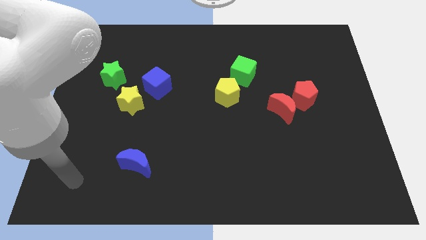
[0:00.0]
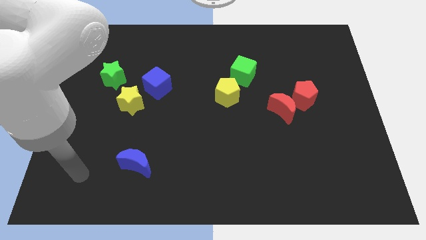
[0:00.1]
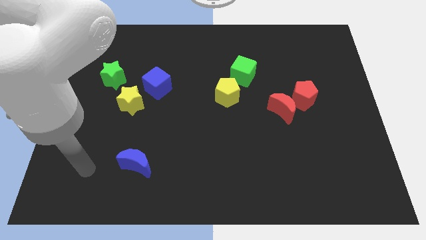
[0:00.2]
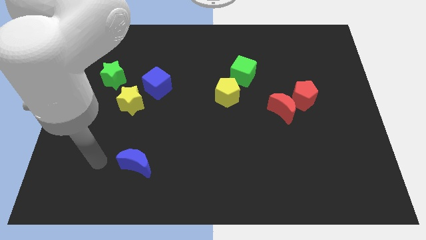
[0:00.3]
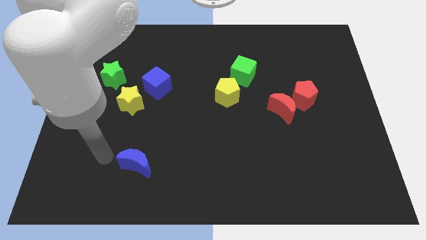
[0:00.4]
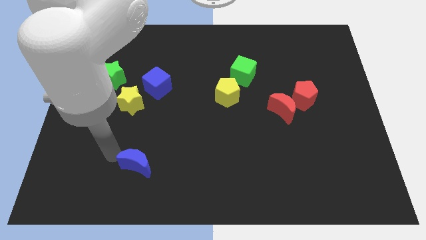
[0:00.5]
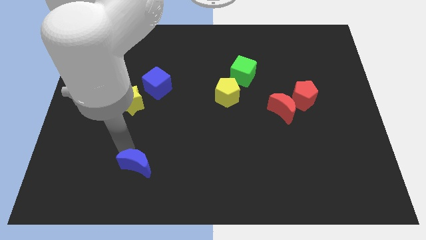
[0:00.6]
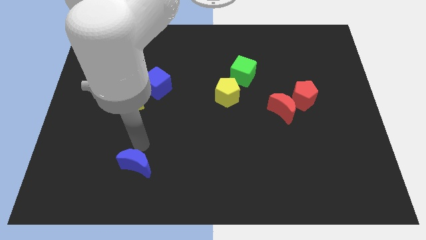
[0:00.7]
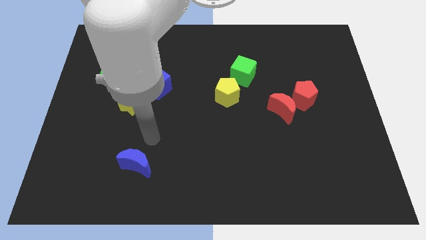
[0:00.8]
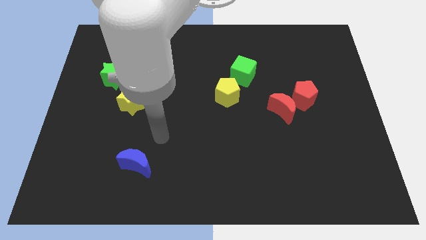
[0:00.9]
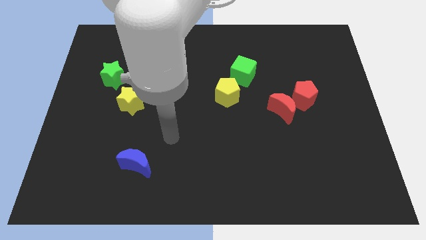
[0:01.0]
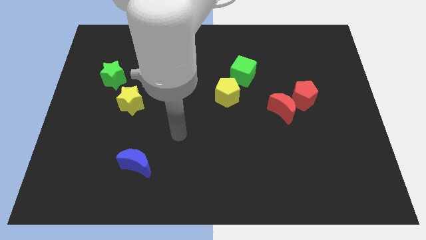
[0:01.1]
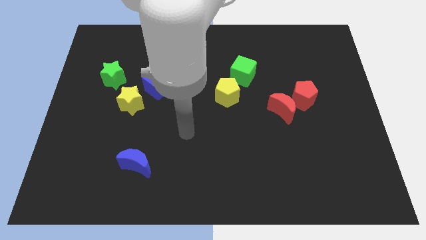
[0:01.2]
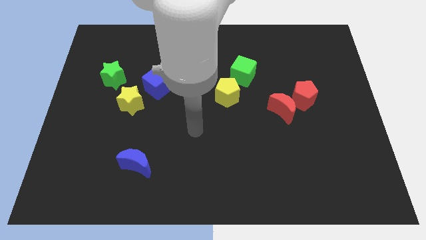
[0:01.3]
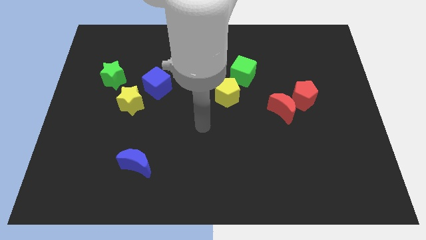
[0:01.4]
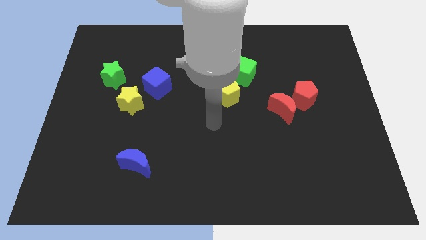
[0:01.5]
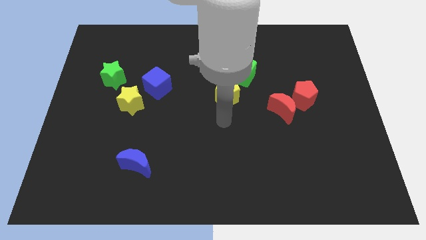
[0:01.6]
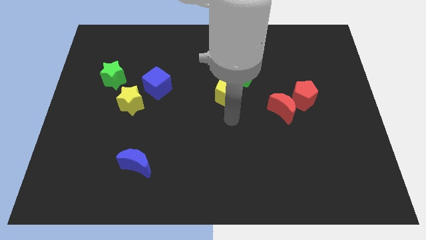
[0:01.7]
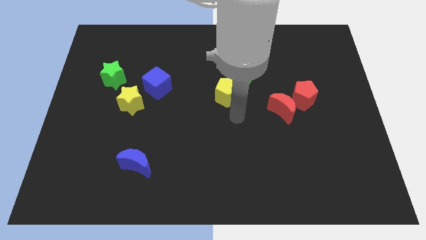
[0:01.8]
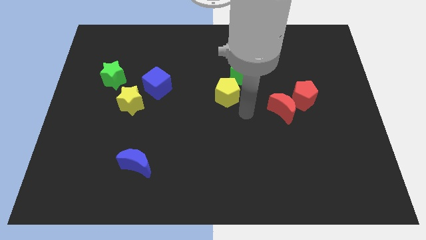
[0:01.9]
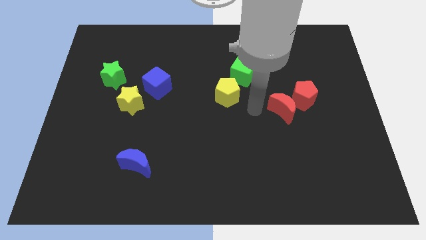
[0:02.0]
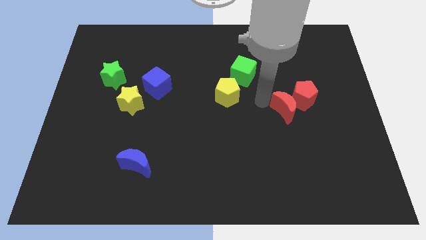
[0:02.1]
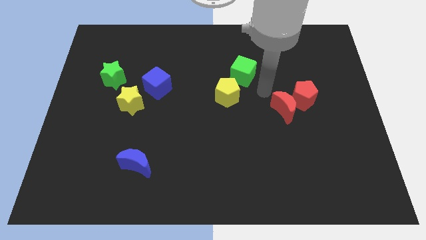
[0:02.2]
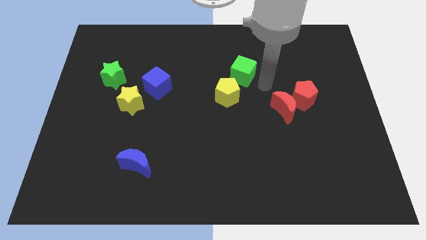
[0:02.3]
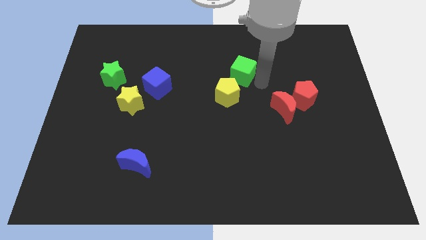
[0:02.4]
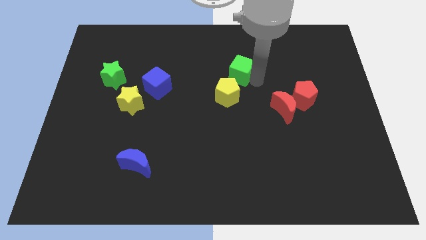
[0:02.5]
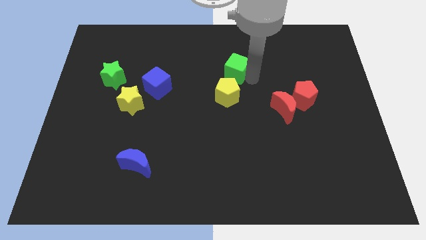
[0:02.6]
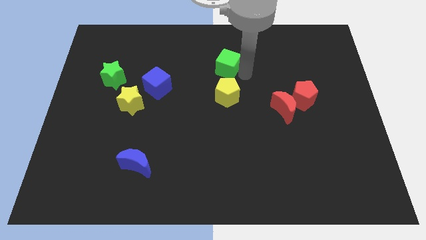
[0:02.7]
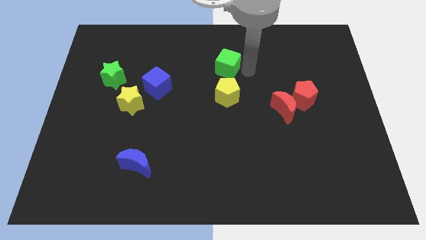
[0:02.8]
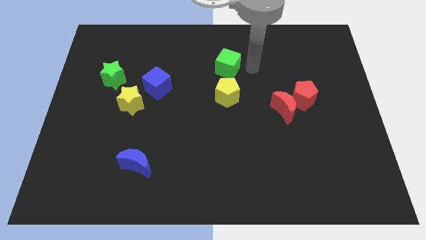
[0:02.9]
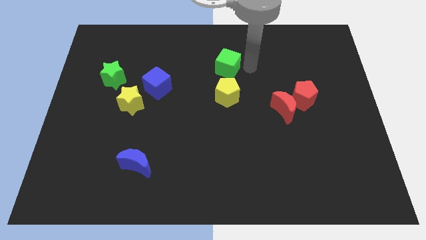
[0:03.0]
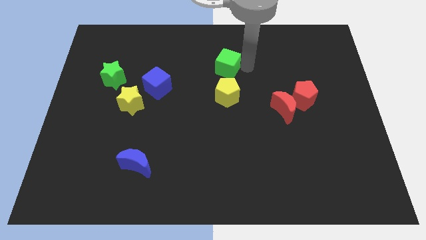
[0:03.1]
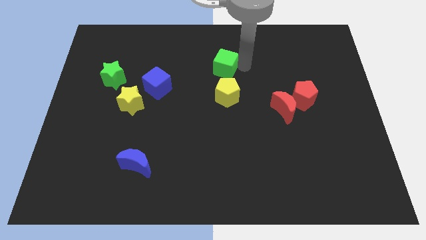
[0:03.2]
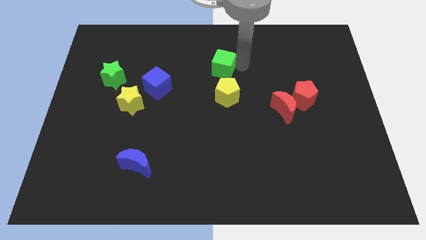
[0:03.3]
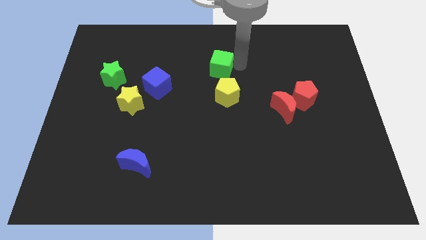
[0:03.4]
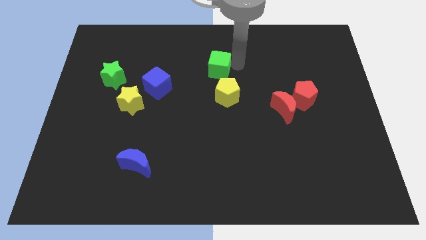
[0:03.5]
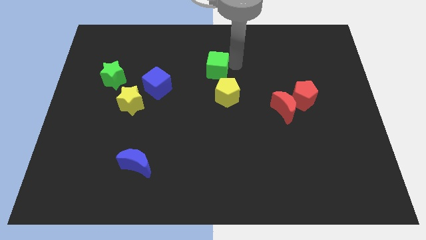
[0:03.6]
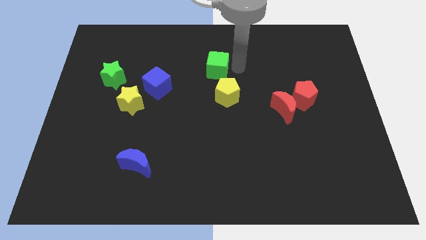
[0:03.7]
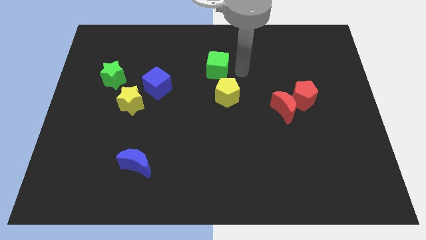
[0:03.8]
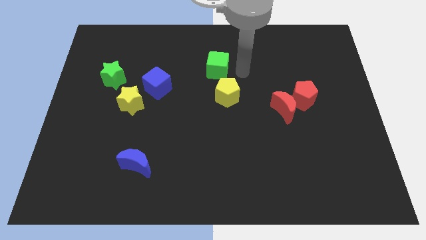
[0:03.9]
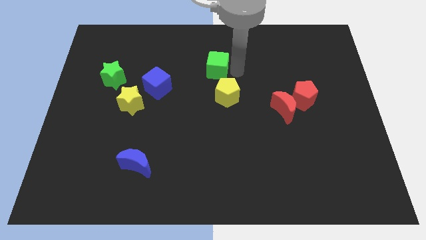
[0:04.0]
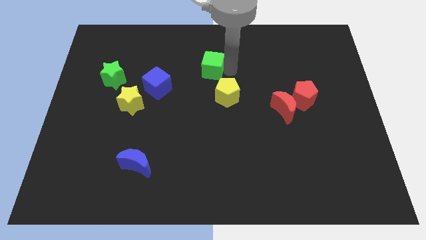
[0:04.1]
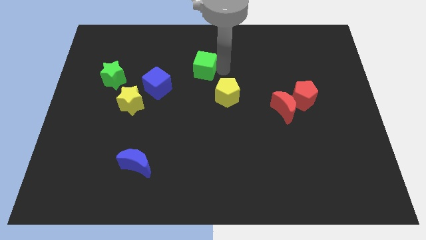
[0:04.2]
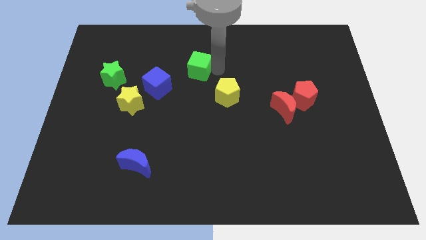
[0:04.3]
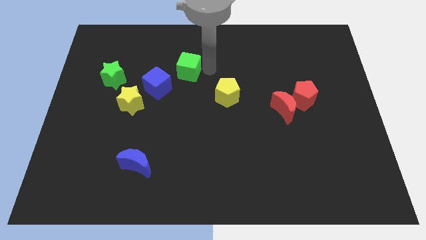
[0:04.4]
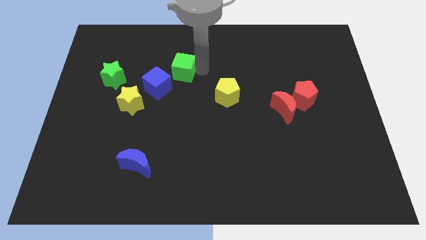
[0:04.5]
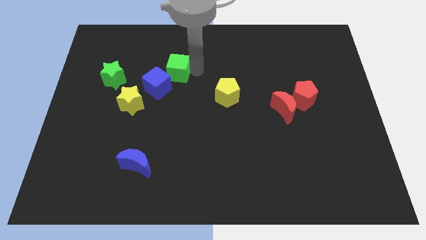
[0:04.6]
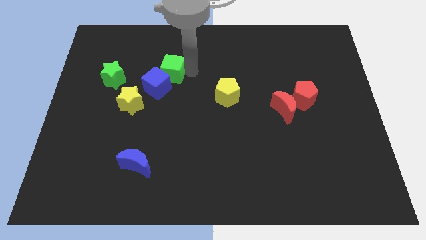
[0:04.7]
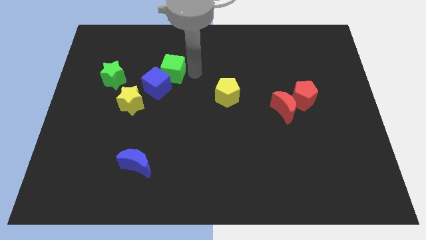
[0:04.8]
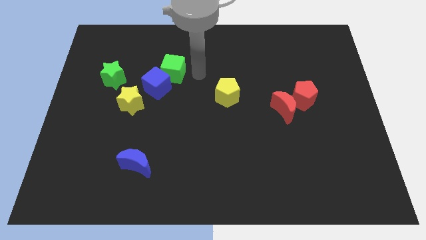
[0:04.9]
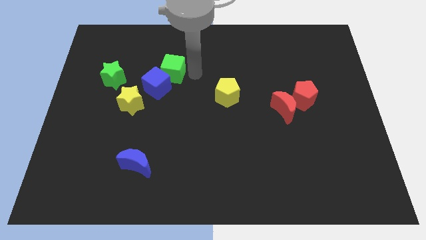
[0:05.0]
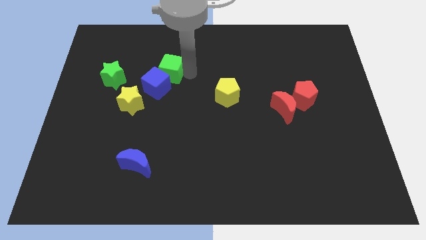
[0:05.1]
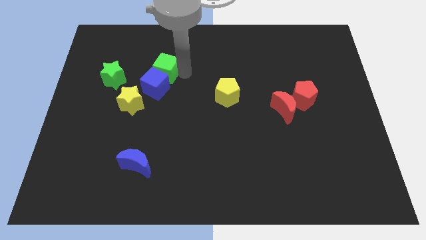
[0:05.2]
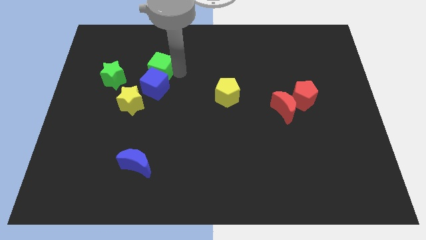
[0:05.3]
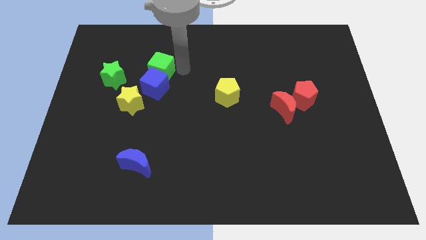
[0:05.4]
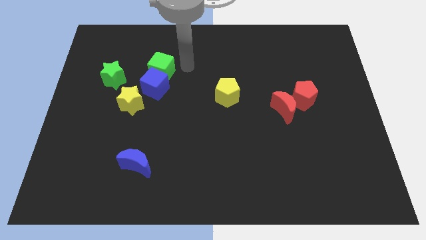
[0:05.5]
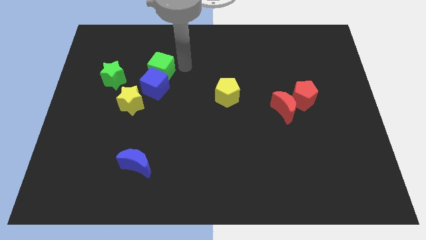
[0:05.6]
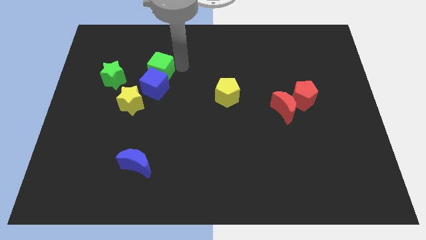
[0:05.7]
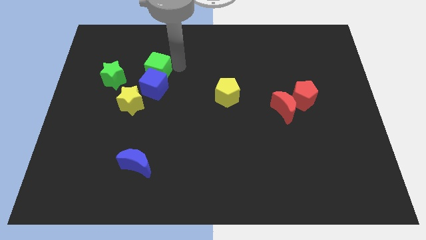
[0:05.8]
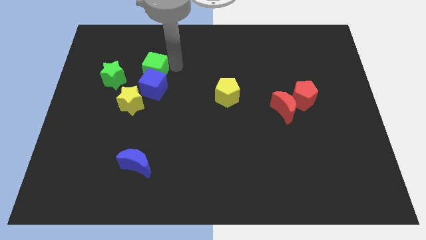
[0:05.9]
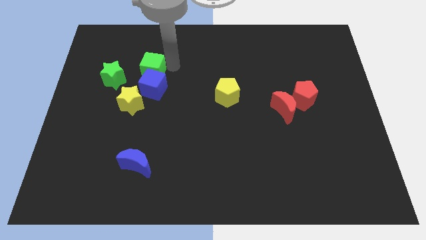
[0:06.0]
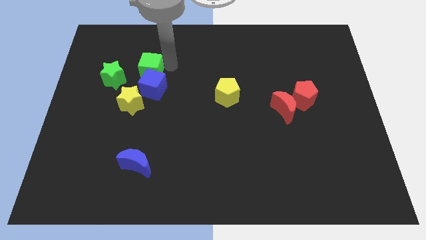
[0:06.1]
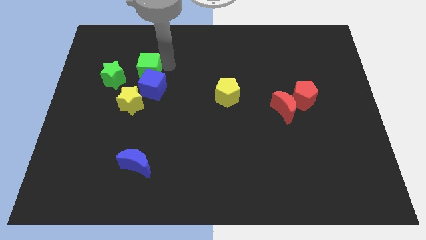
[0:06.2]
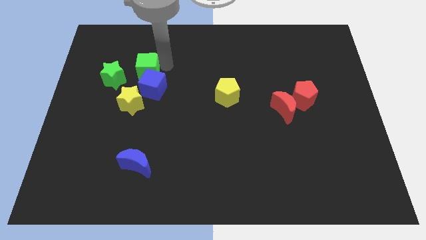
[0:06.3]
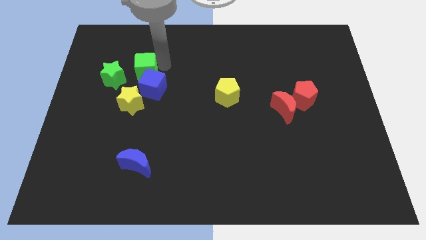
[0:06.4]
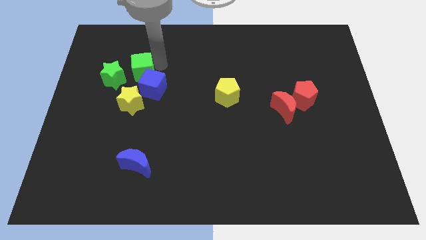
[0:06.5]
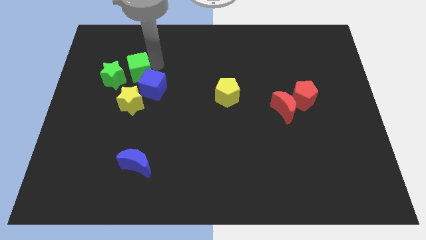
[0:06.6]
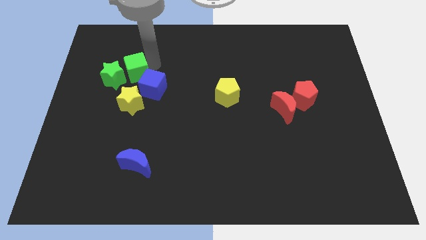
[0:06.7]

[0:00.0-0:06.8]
slide the green cube close to the green star
